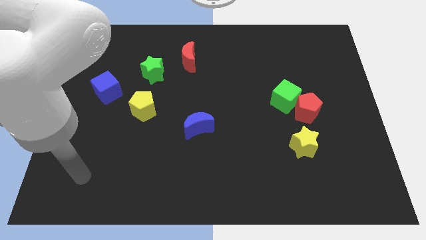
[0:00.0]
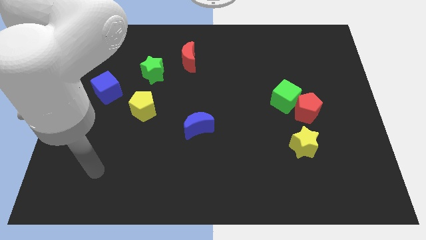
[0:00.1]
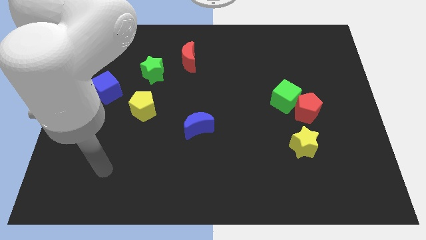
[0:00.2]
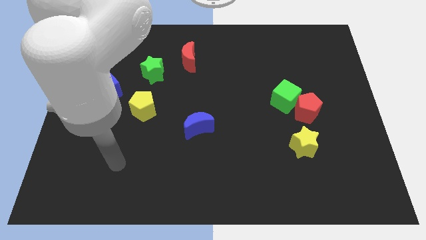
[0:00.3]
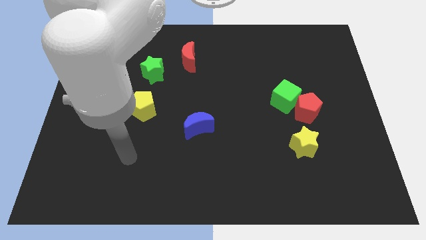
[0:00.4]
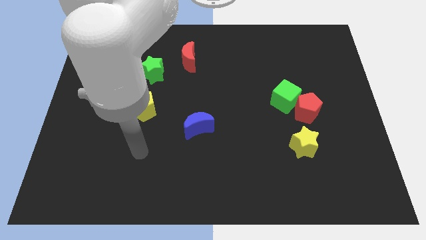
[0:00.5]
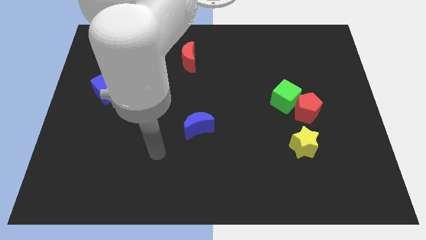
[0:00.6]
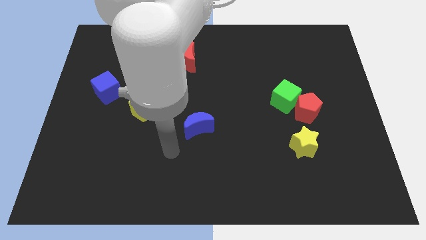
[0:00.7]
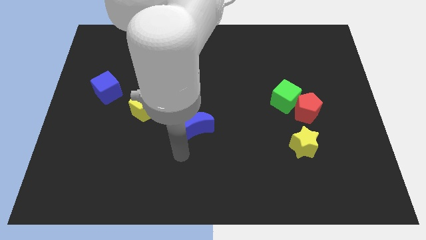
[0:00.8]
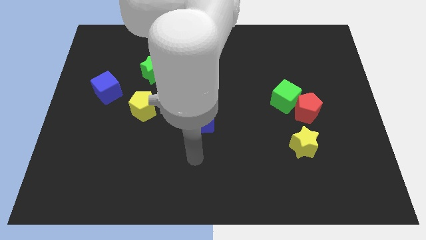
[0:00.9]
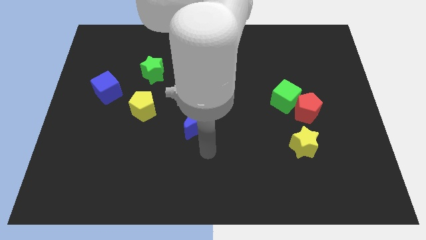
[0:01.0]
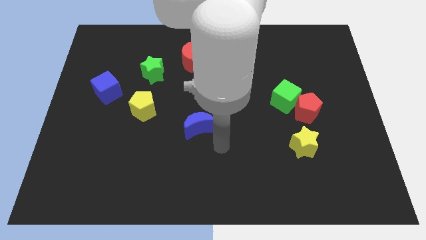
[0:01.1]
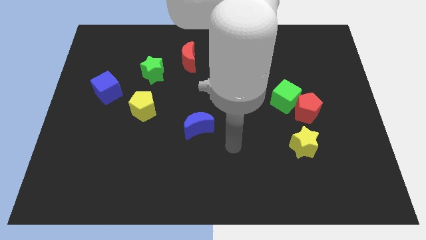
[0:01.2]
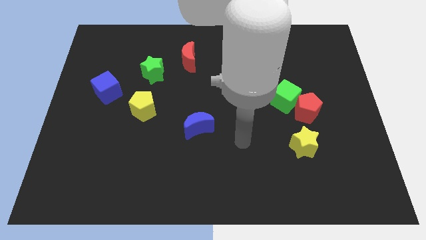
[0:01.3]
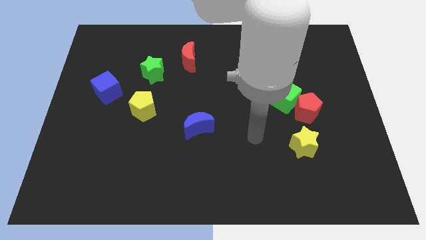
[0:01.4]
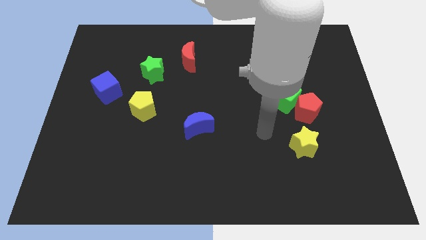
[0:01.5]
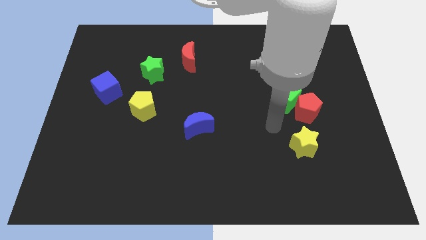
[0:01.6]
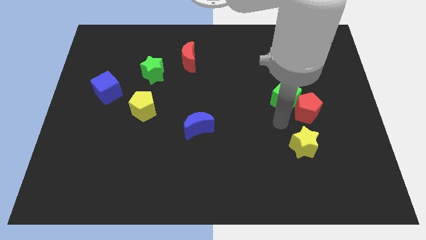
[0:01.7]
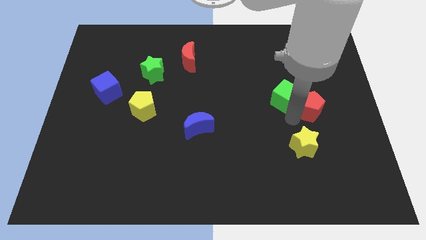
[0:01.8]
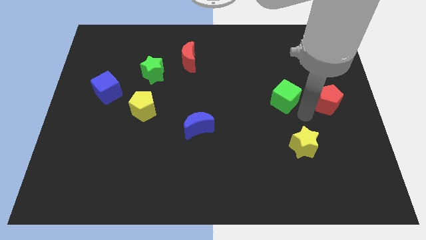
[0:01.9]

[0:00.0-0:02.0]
pull the green cube apart from the red pentagon

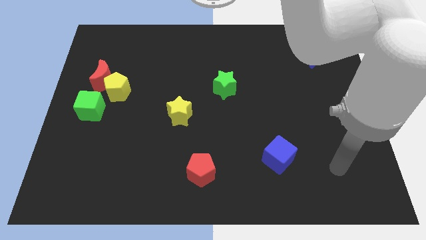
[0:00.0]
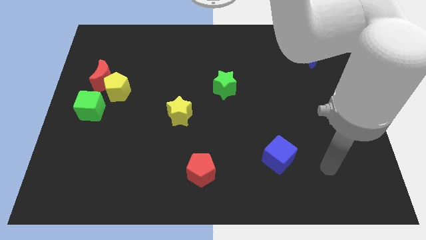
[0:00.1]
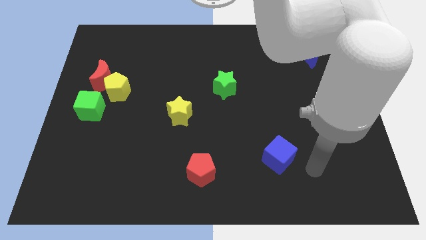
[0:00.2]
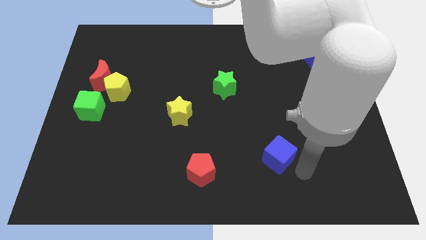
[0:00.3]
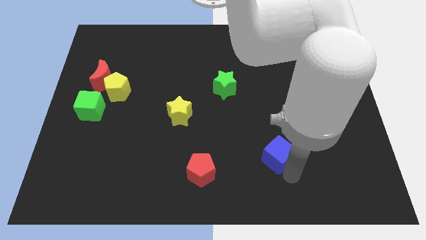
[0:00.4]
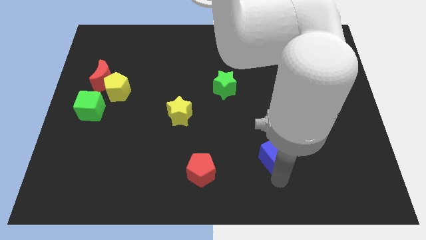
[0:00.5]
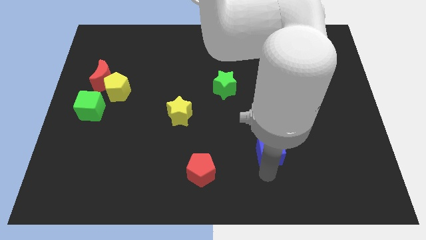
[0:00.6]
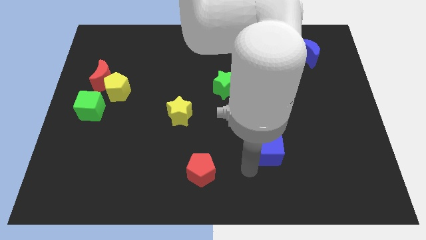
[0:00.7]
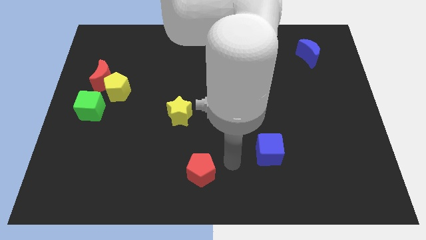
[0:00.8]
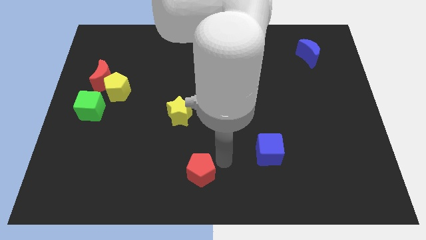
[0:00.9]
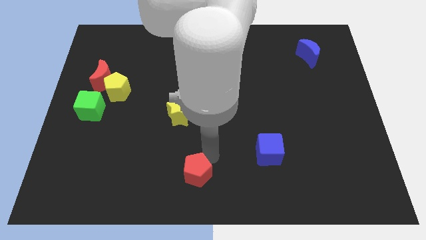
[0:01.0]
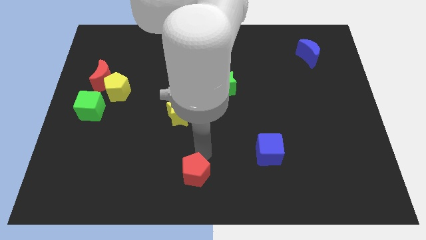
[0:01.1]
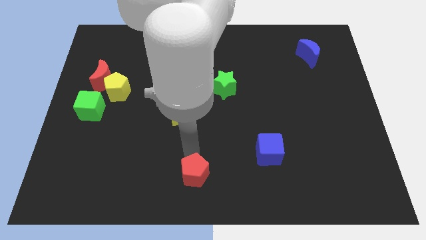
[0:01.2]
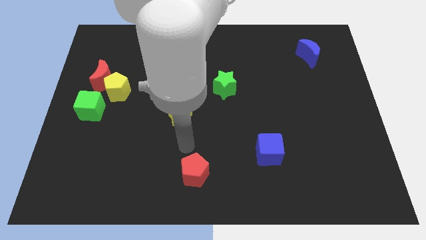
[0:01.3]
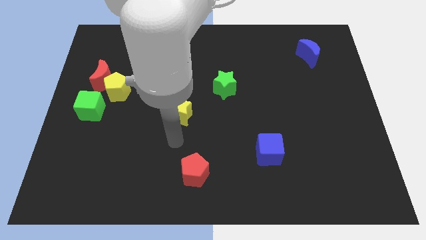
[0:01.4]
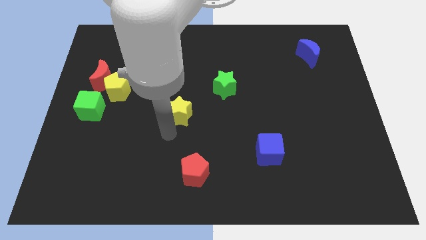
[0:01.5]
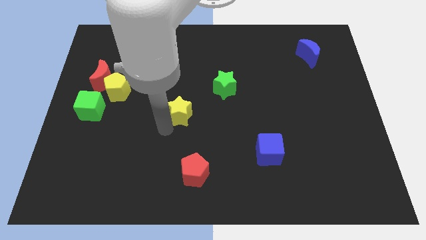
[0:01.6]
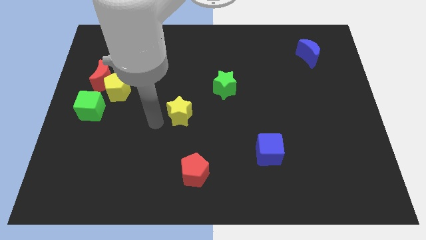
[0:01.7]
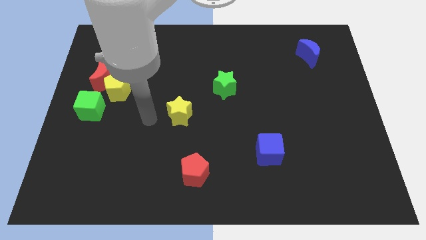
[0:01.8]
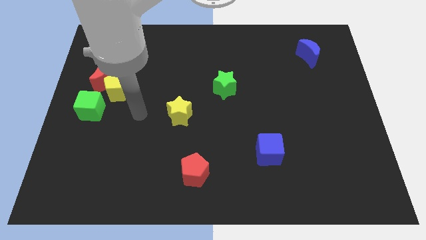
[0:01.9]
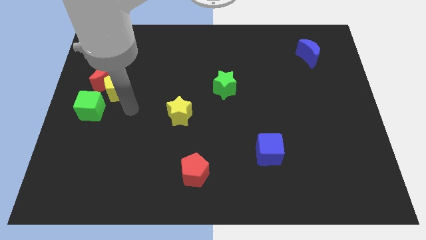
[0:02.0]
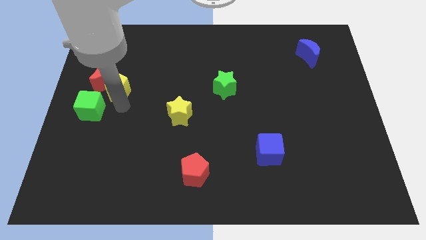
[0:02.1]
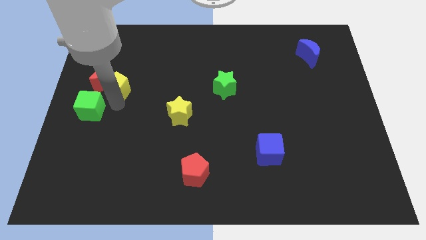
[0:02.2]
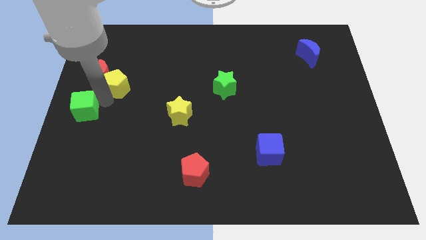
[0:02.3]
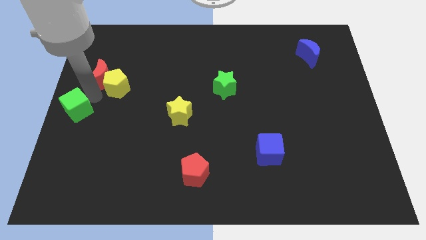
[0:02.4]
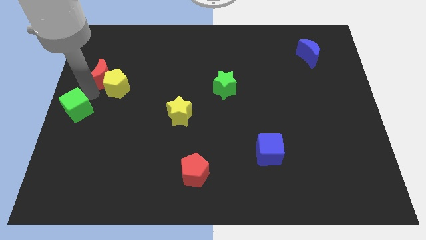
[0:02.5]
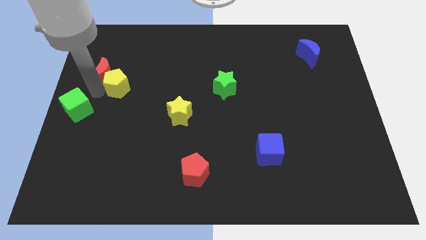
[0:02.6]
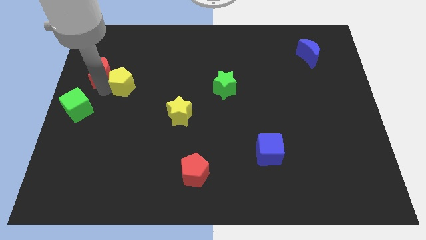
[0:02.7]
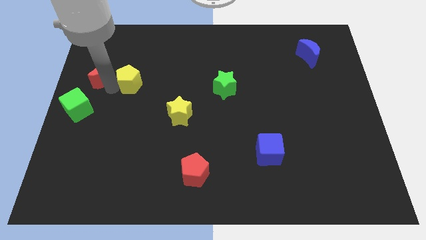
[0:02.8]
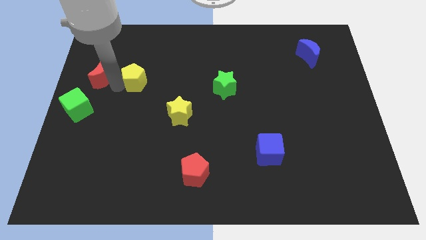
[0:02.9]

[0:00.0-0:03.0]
move the yellow pentagon away from the red moon and green cube

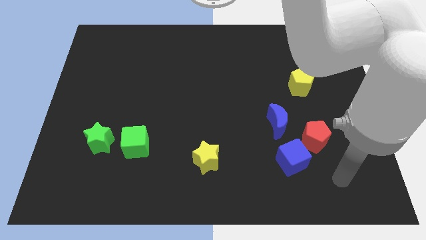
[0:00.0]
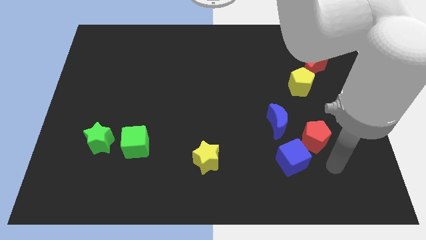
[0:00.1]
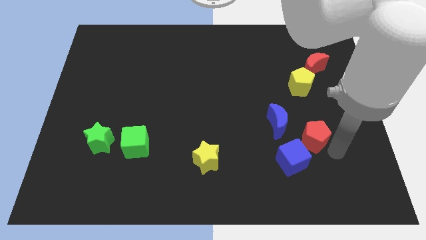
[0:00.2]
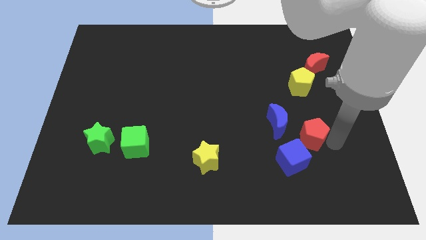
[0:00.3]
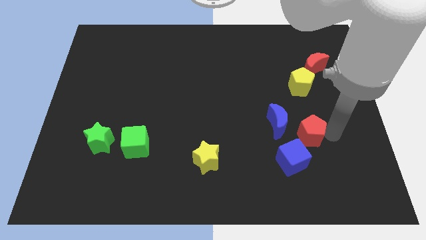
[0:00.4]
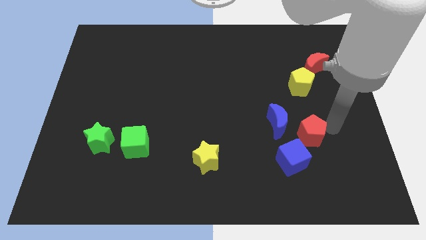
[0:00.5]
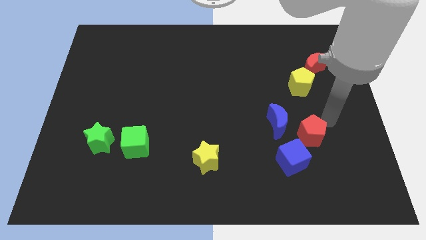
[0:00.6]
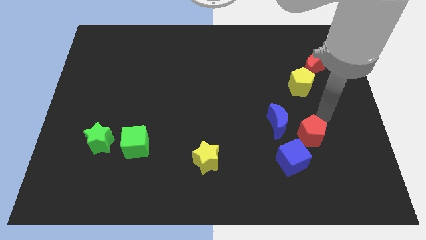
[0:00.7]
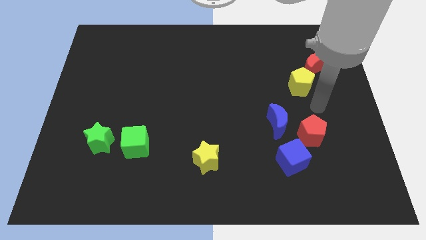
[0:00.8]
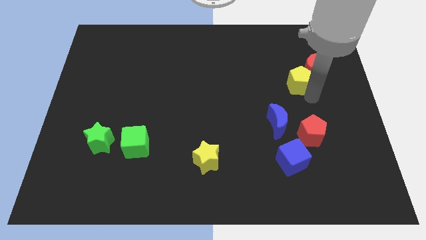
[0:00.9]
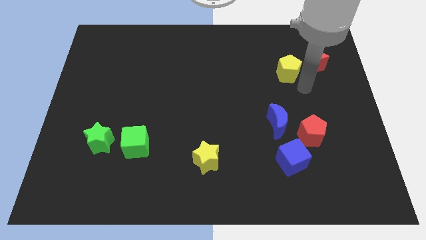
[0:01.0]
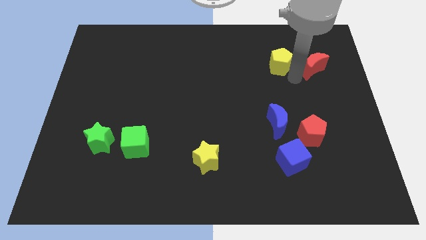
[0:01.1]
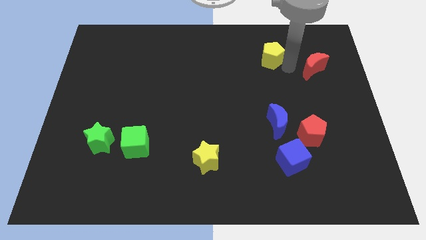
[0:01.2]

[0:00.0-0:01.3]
pull the red moon apart from the yellow pentagon

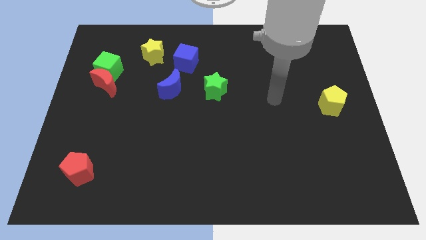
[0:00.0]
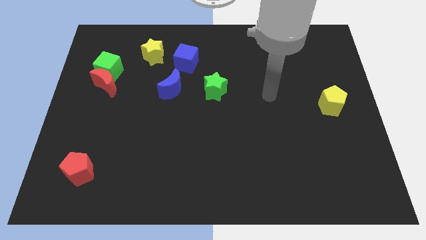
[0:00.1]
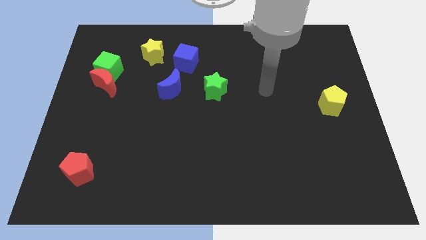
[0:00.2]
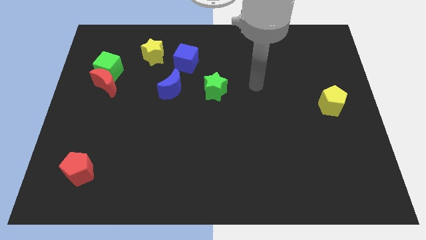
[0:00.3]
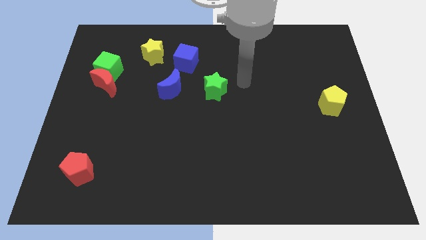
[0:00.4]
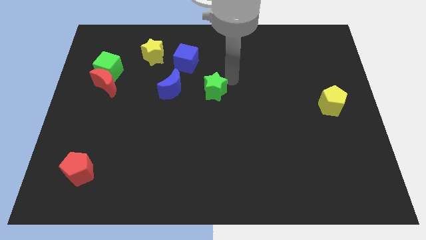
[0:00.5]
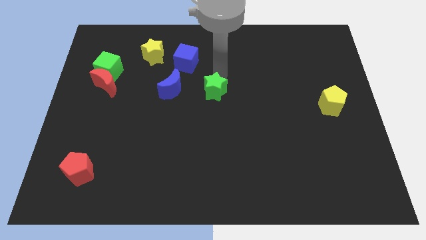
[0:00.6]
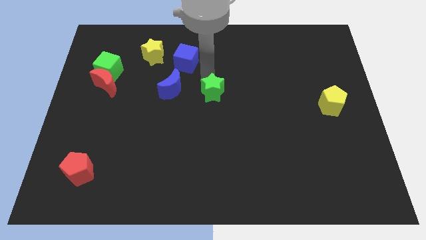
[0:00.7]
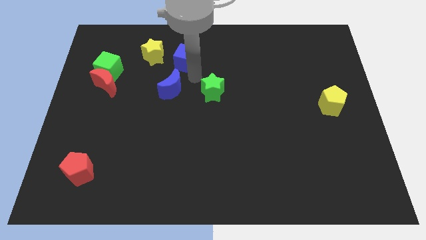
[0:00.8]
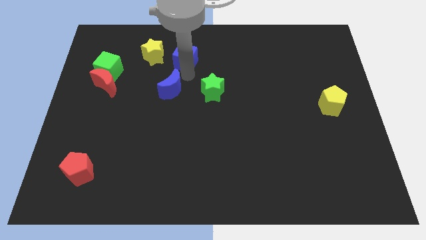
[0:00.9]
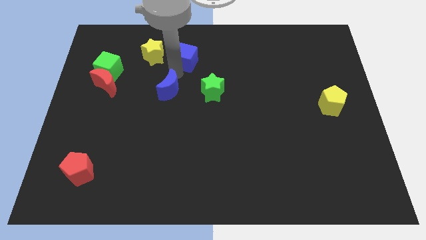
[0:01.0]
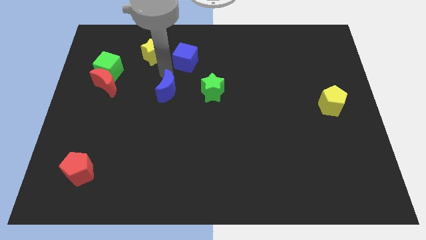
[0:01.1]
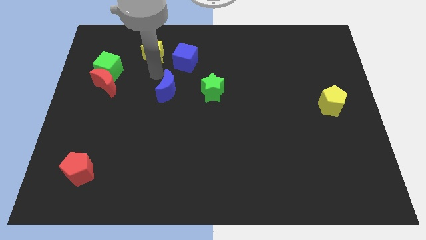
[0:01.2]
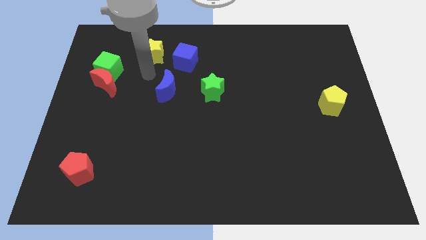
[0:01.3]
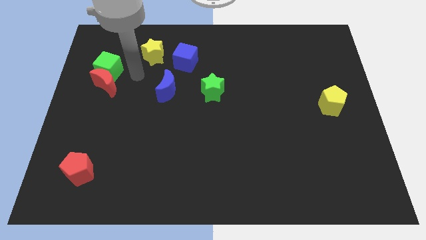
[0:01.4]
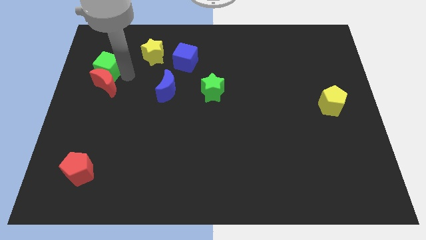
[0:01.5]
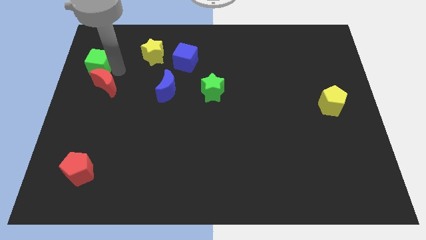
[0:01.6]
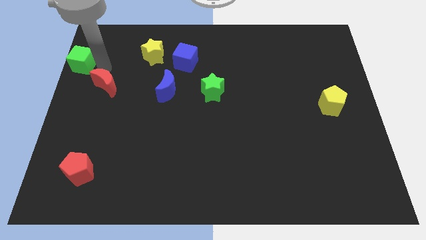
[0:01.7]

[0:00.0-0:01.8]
move the red moon away from the green cube

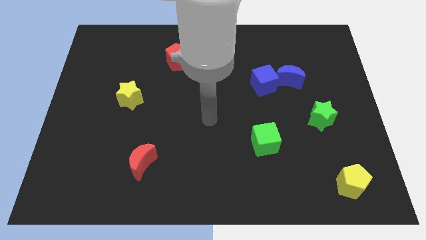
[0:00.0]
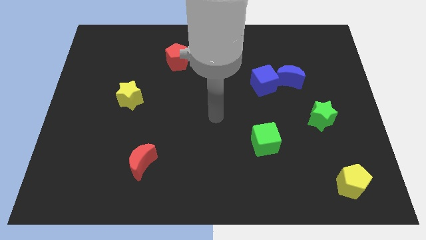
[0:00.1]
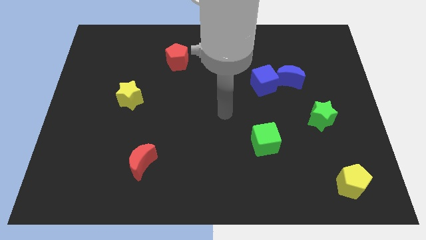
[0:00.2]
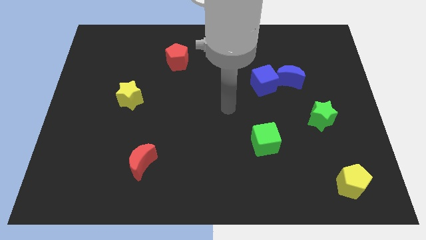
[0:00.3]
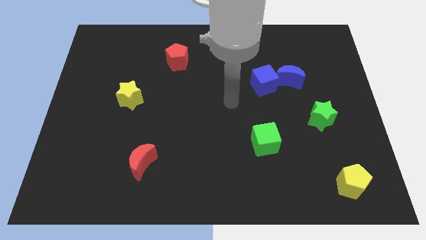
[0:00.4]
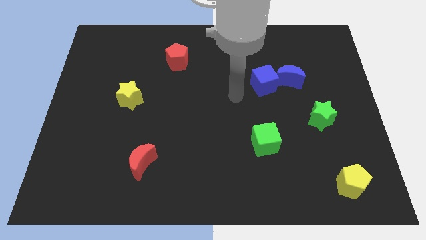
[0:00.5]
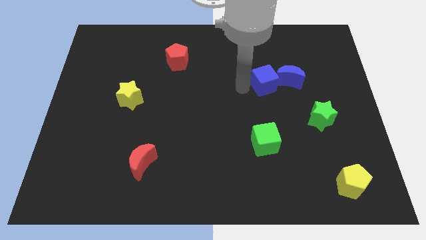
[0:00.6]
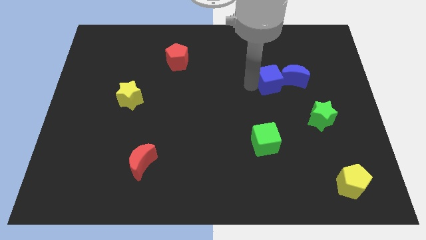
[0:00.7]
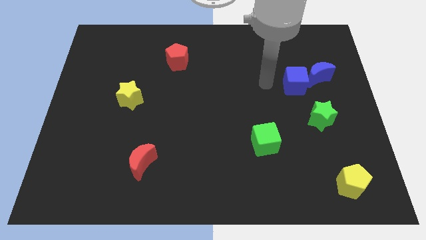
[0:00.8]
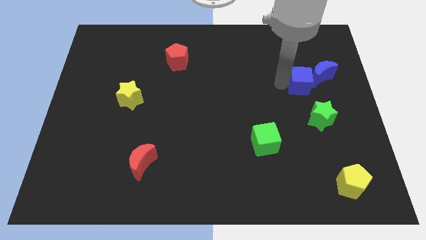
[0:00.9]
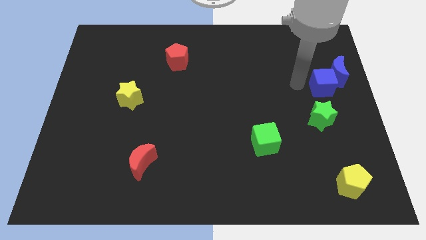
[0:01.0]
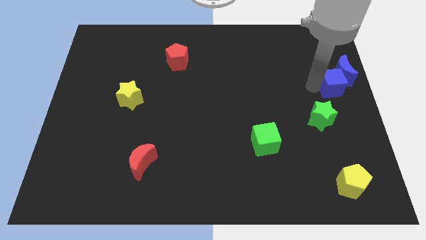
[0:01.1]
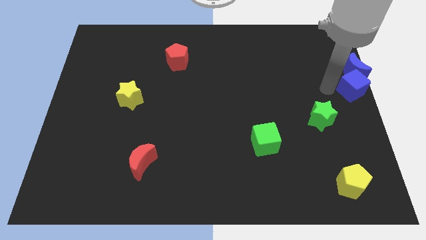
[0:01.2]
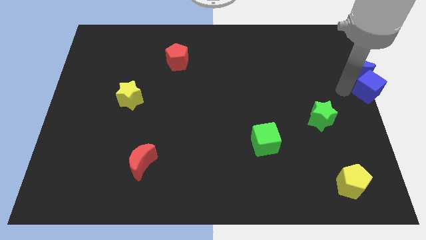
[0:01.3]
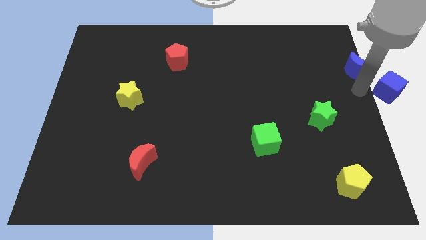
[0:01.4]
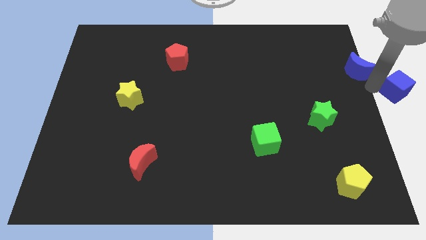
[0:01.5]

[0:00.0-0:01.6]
pull the blue moon apart from the blue cube
